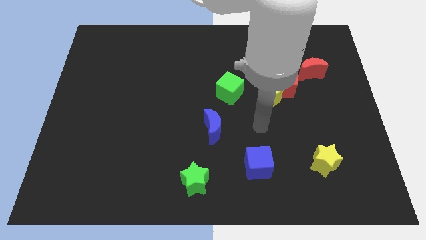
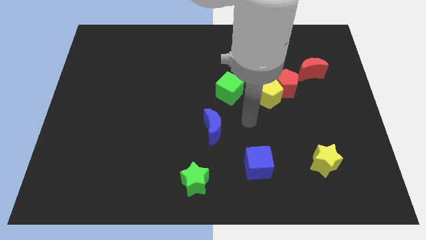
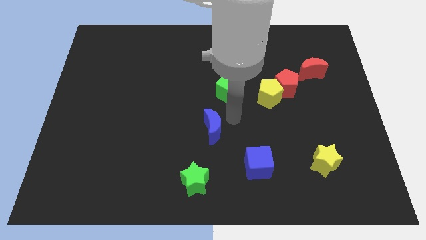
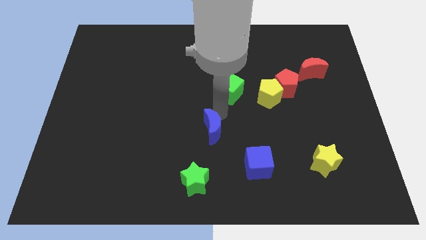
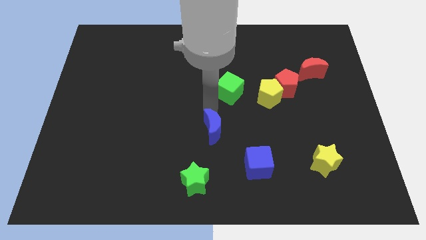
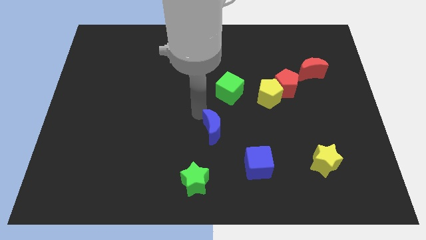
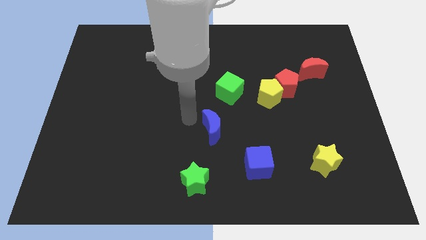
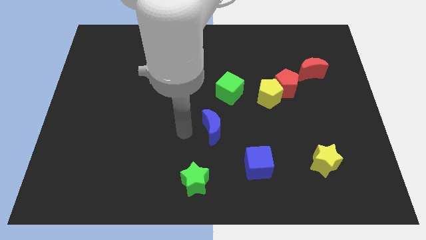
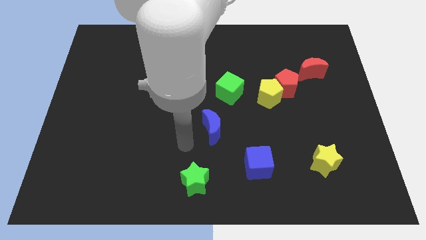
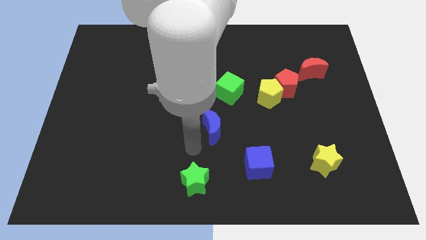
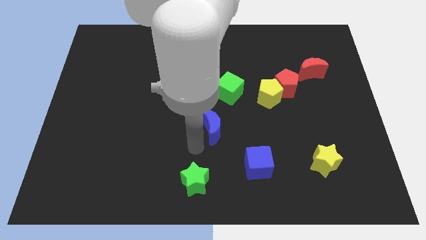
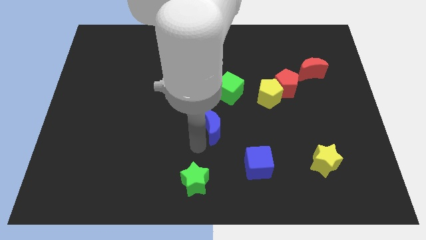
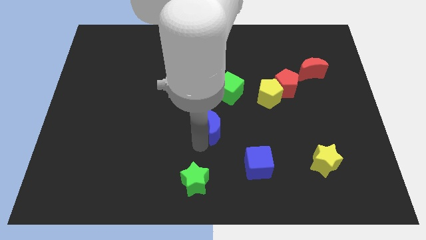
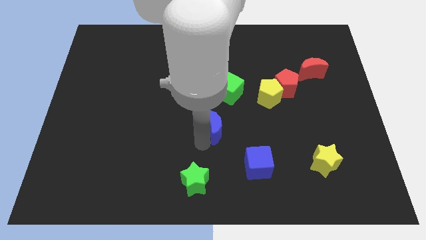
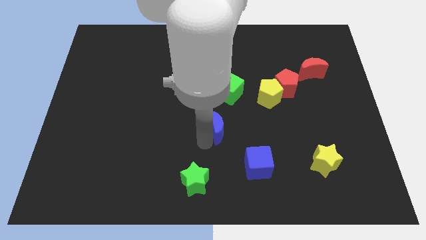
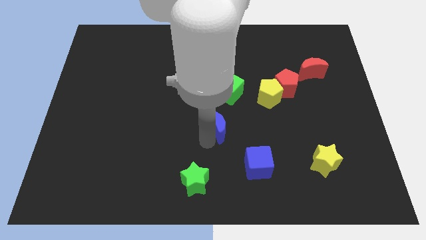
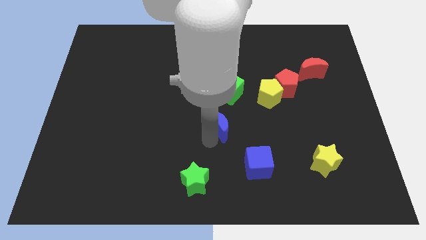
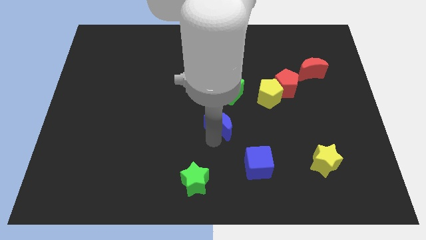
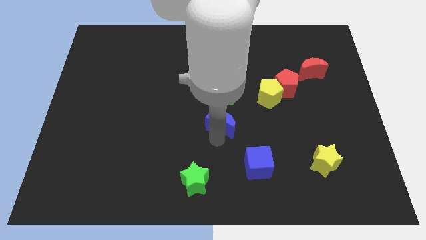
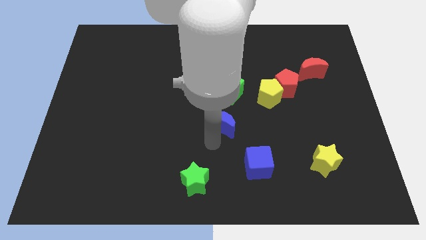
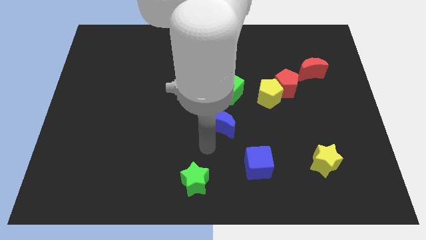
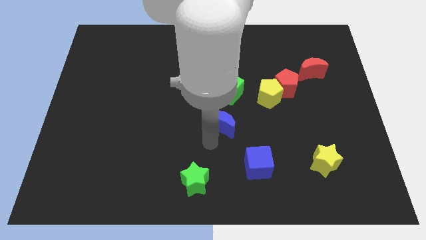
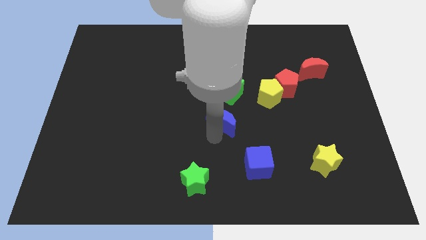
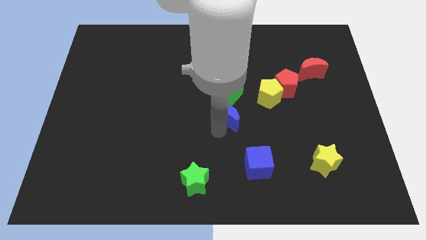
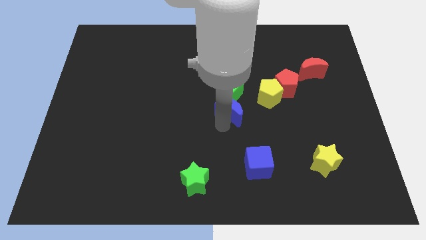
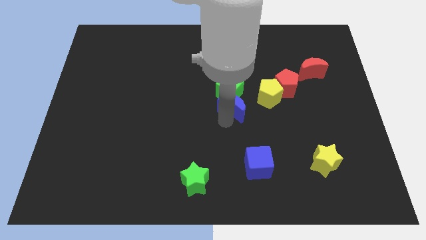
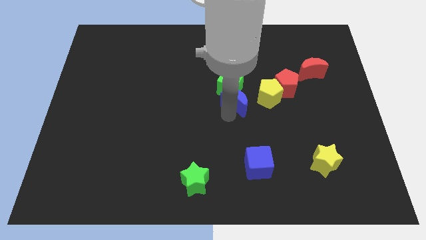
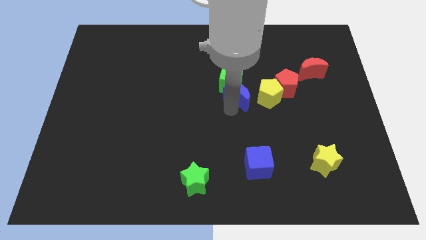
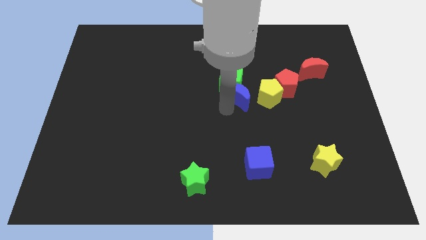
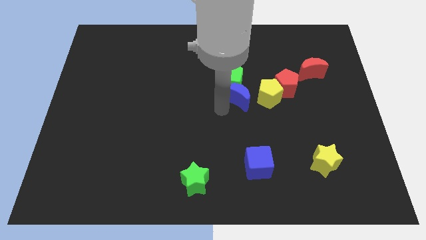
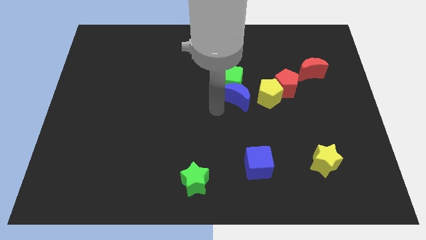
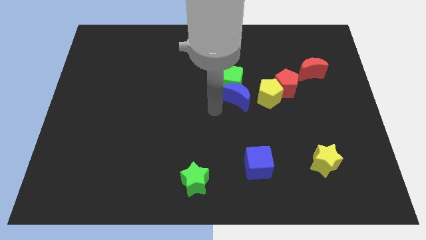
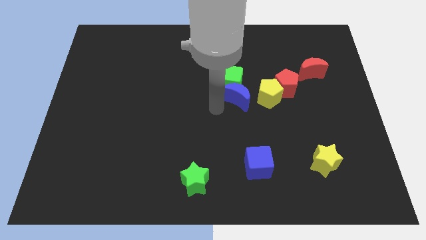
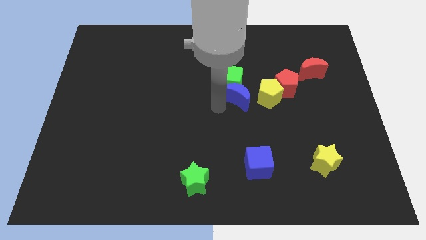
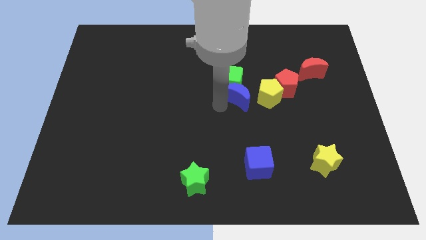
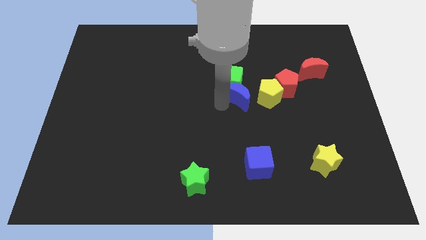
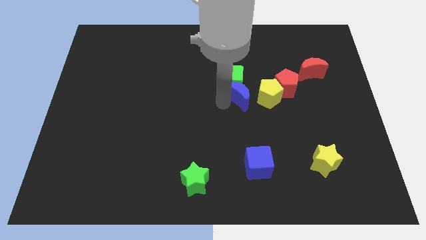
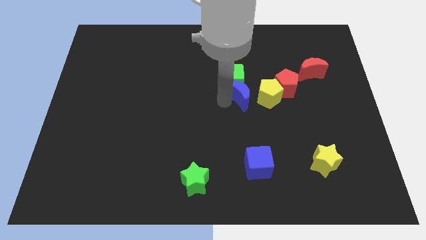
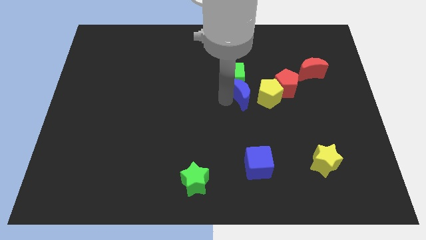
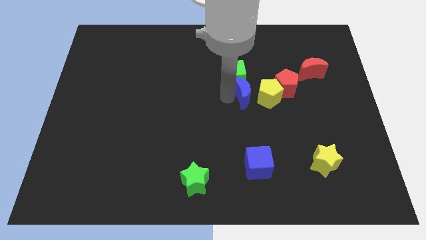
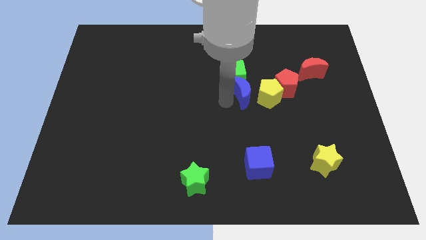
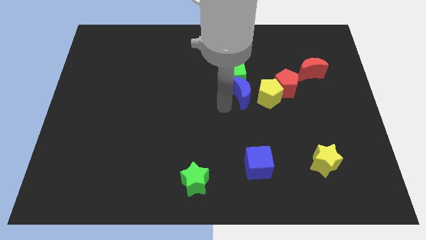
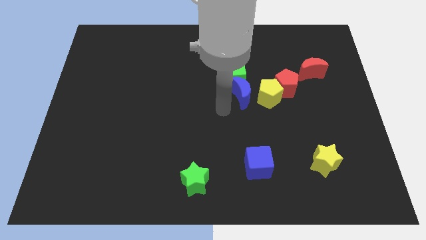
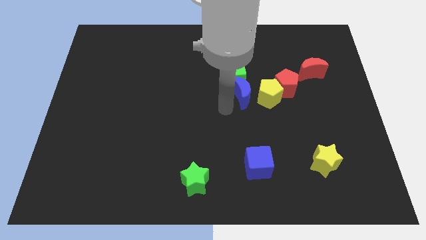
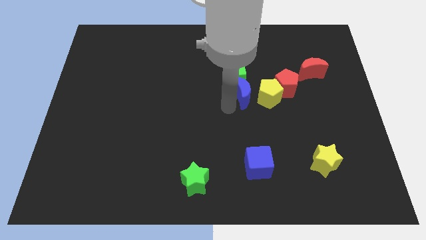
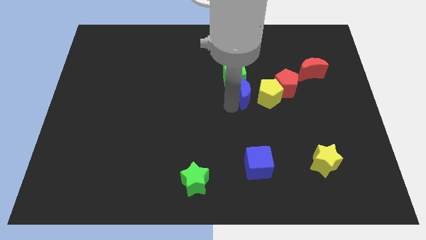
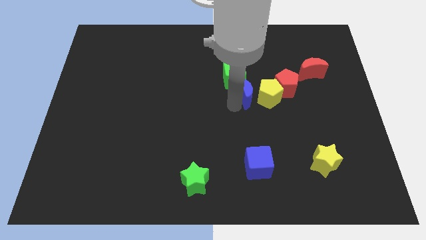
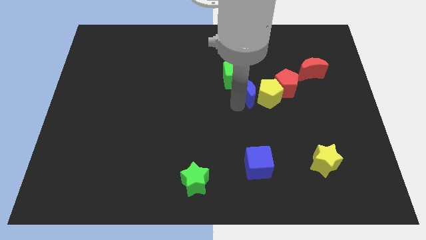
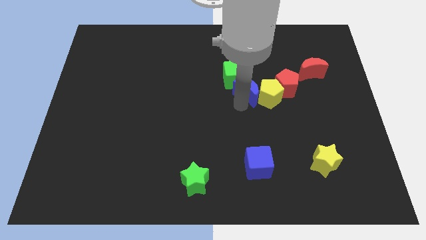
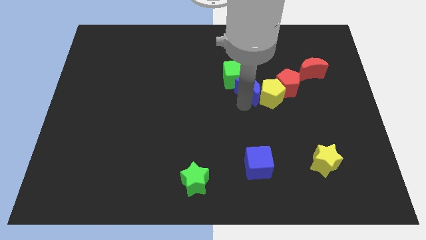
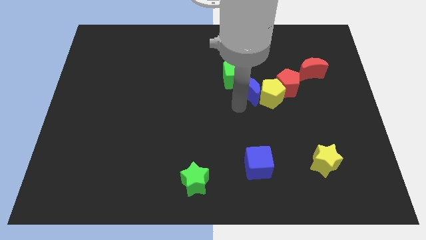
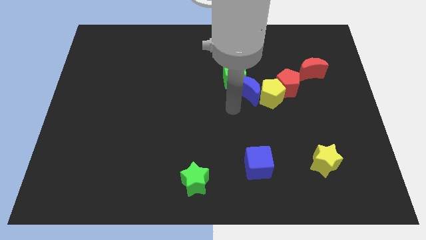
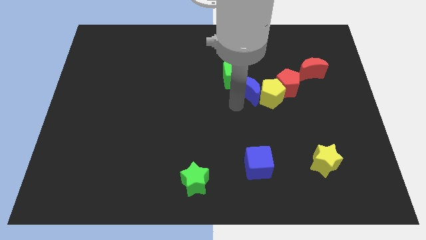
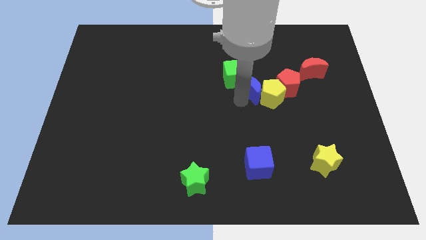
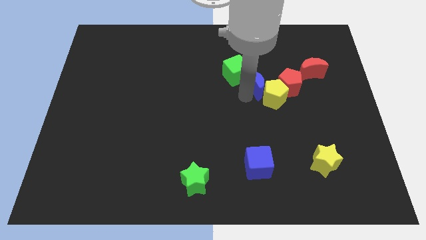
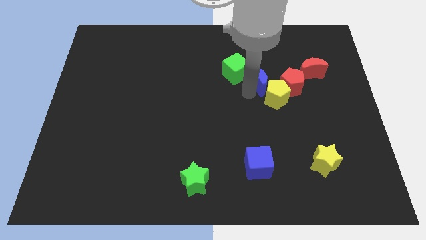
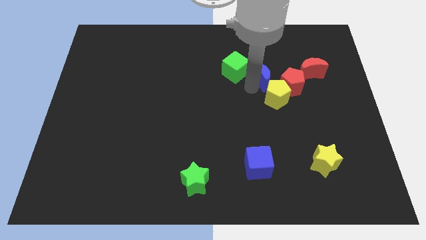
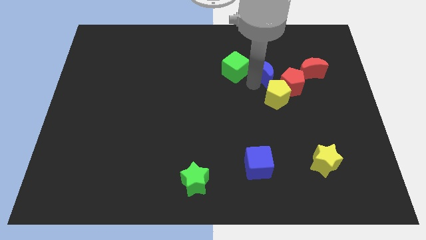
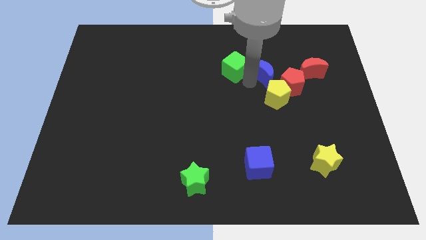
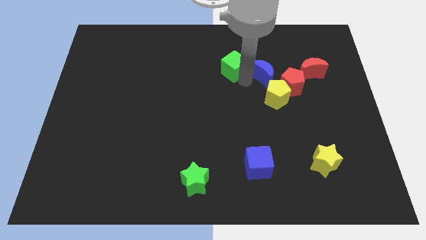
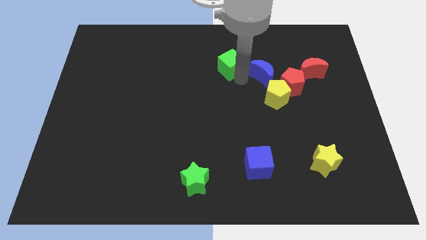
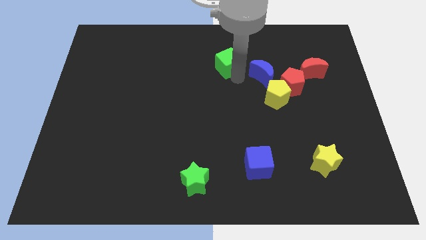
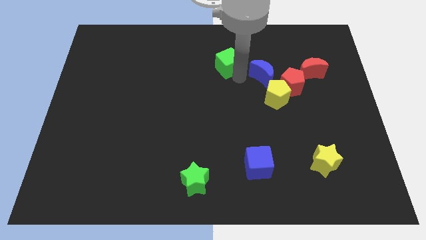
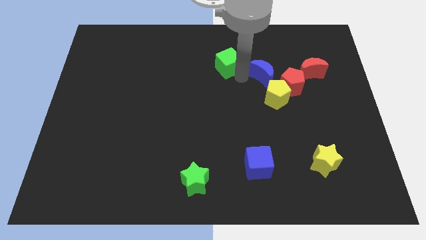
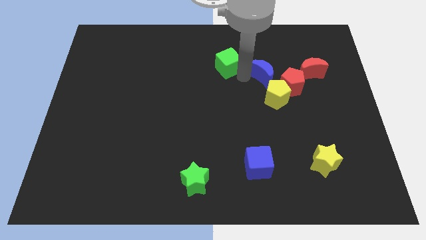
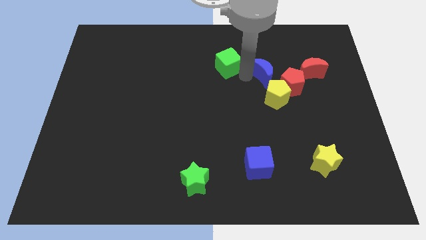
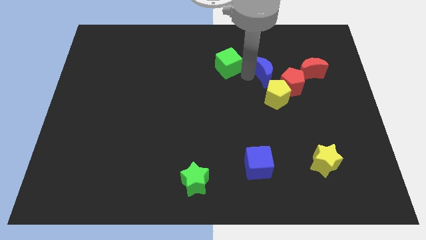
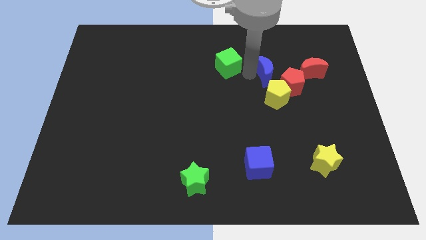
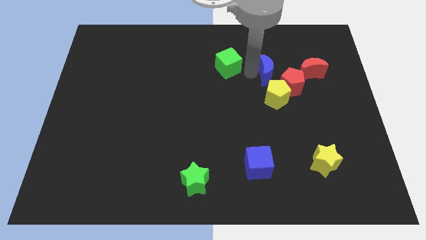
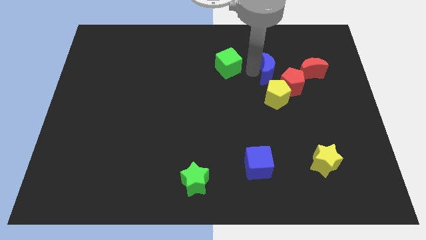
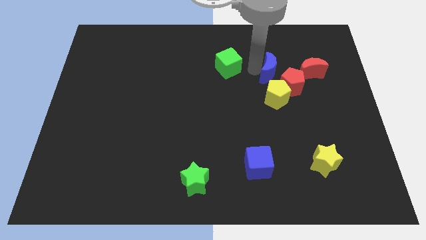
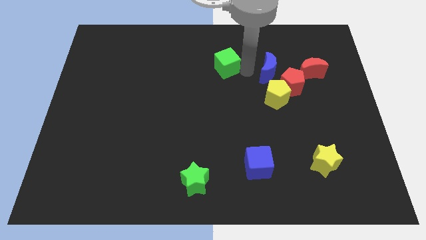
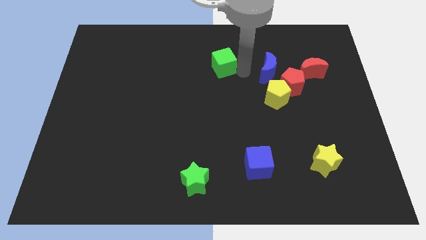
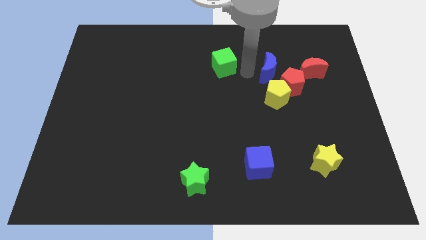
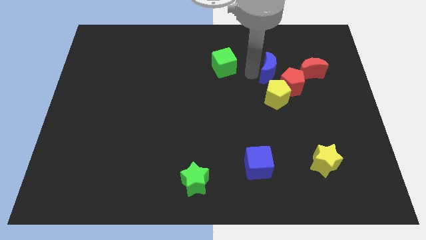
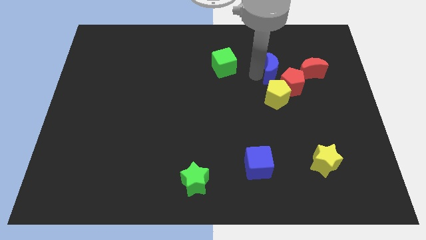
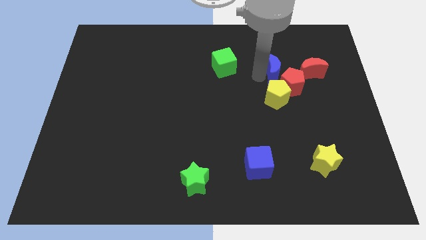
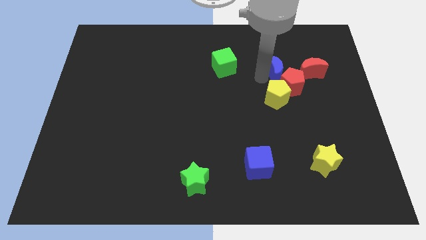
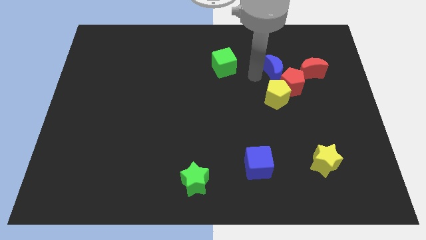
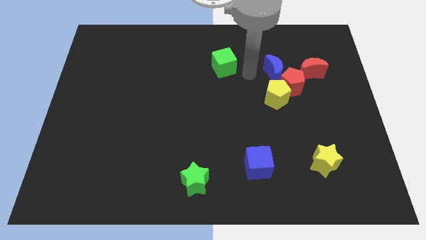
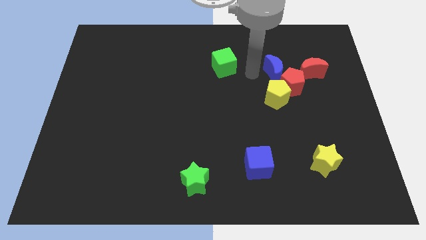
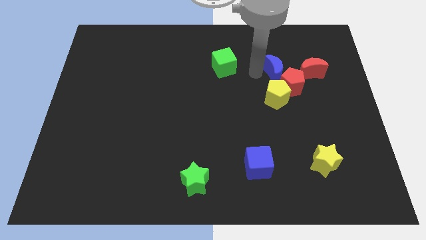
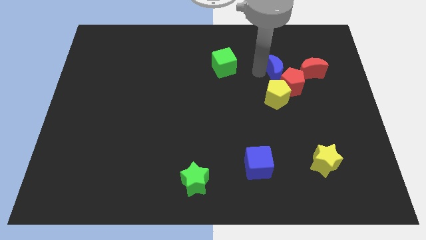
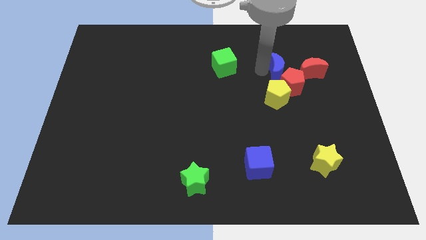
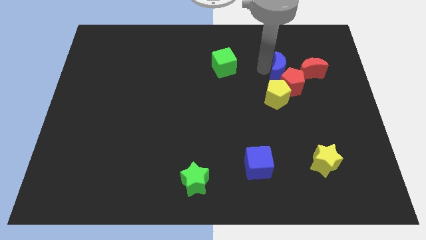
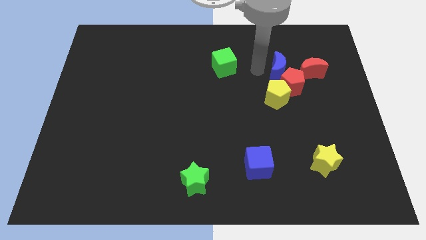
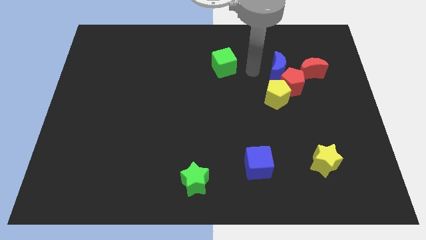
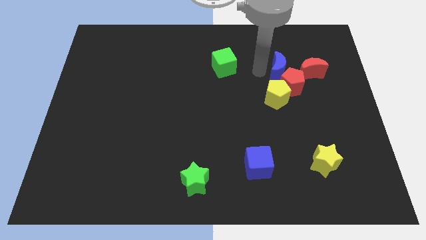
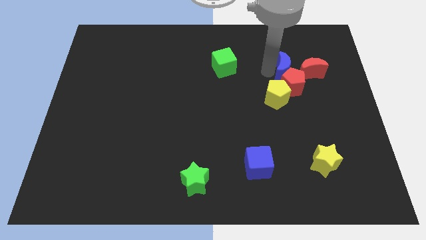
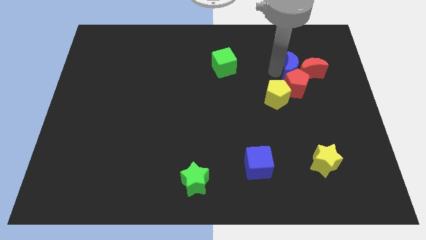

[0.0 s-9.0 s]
slide the blue moon next to the red moon
